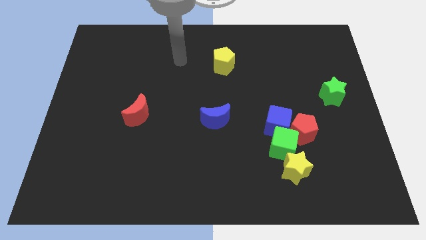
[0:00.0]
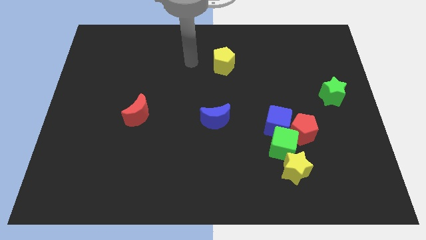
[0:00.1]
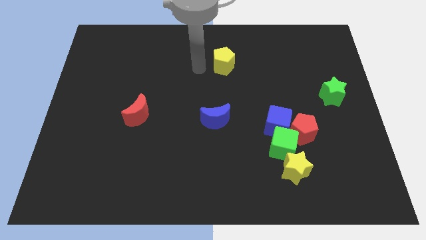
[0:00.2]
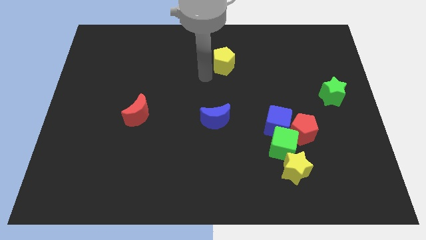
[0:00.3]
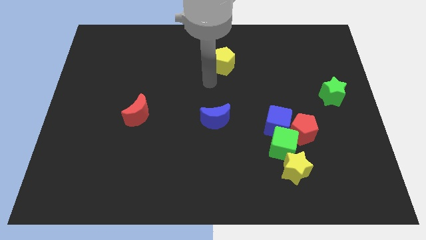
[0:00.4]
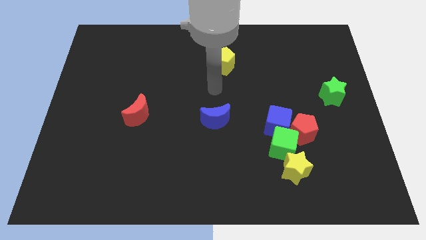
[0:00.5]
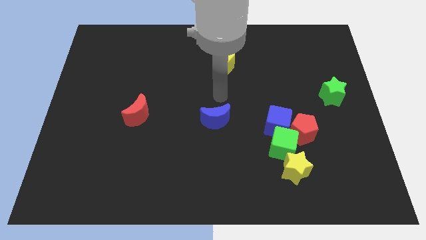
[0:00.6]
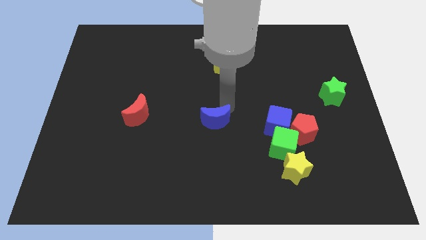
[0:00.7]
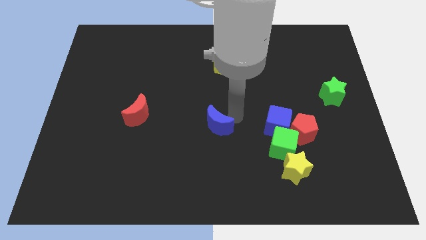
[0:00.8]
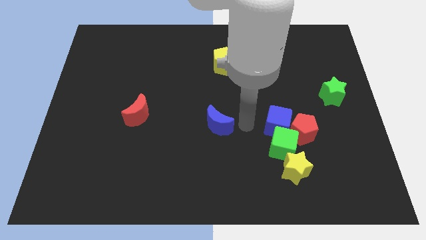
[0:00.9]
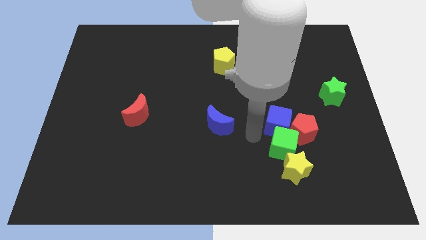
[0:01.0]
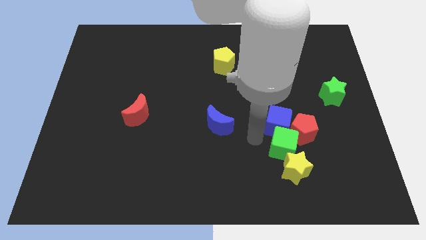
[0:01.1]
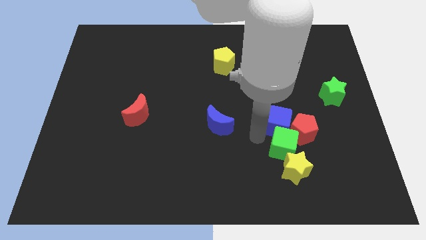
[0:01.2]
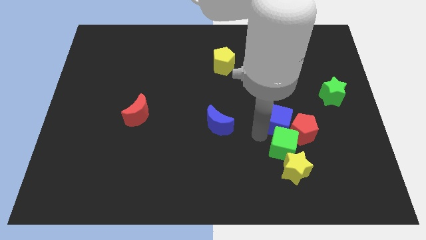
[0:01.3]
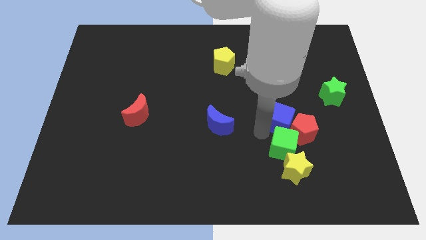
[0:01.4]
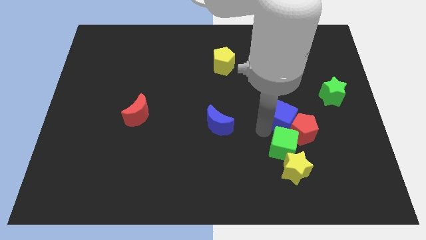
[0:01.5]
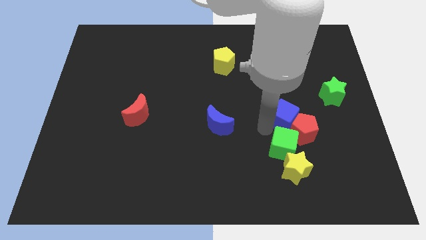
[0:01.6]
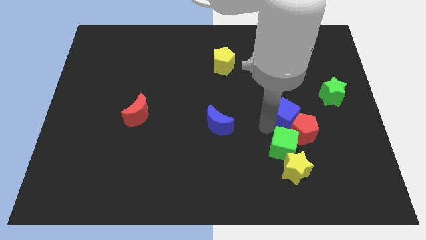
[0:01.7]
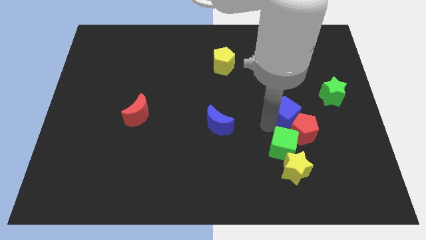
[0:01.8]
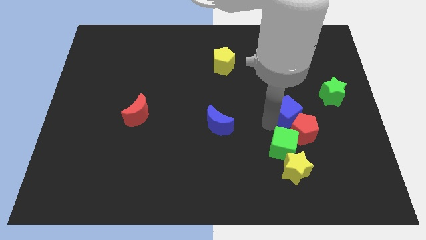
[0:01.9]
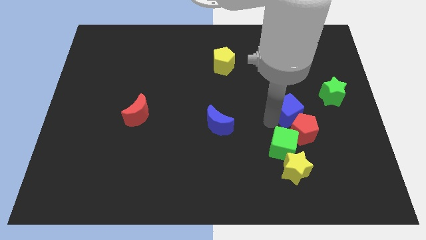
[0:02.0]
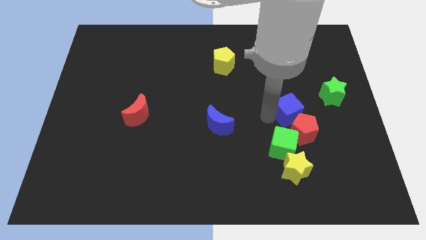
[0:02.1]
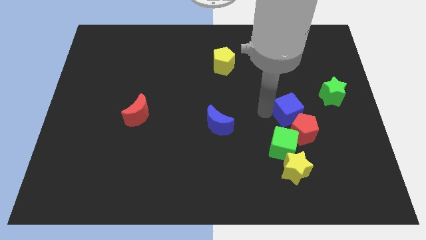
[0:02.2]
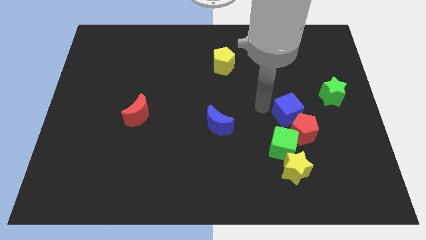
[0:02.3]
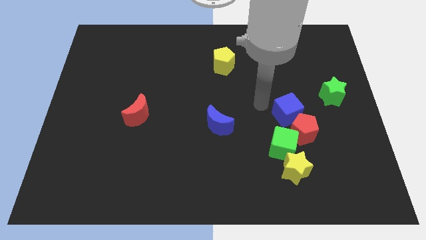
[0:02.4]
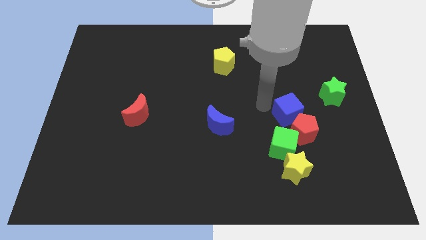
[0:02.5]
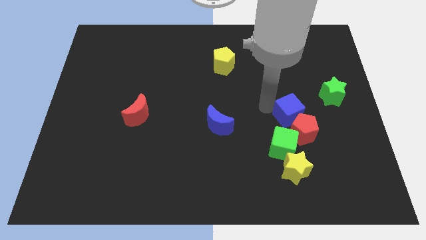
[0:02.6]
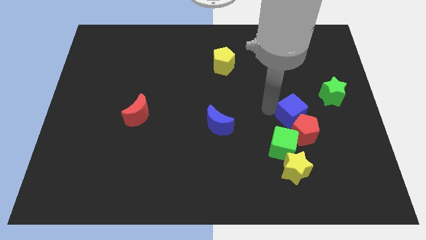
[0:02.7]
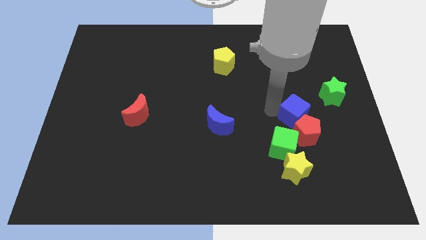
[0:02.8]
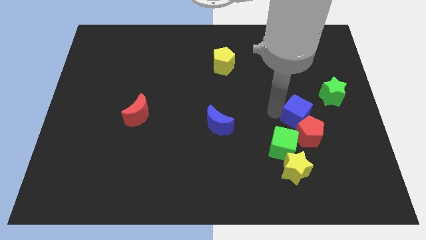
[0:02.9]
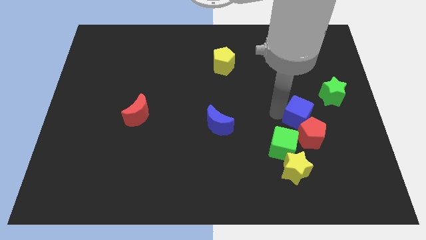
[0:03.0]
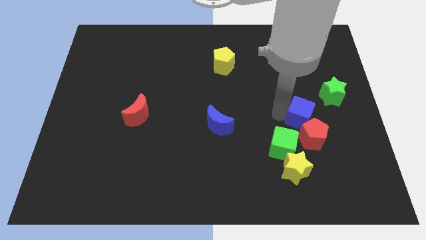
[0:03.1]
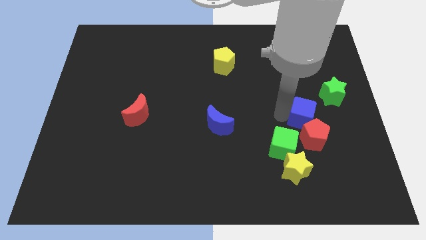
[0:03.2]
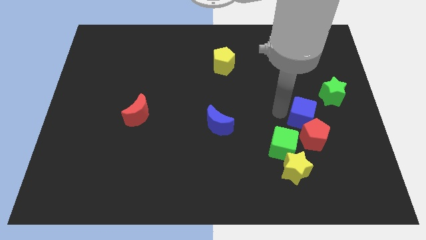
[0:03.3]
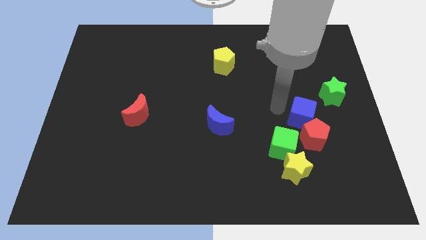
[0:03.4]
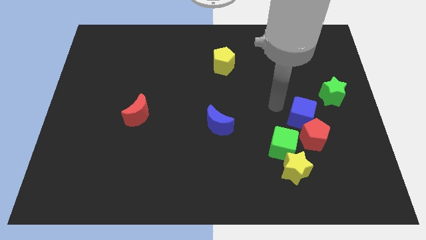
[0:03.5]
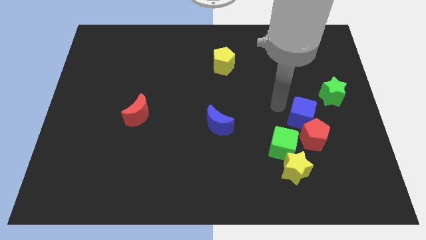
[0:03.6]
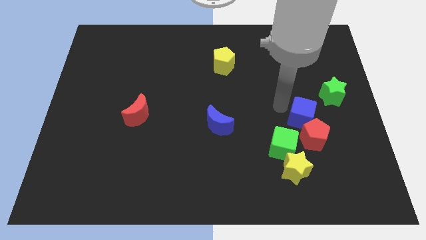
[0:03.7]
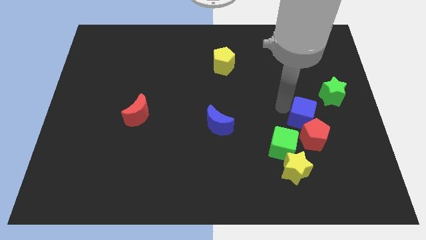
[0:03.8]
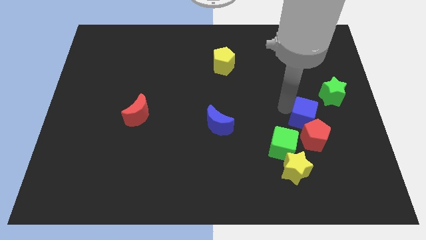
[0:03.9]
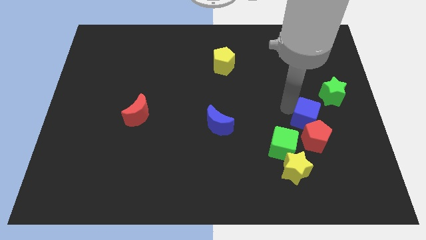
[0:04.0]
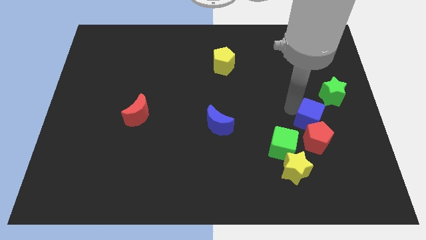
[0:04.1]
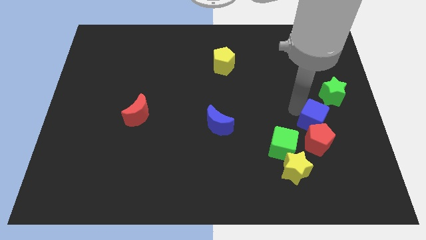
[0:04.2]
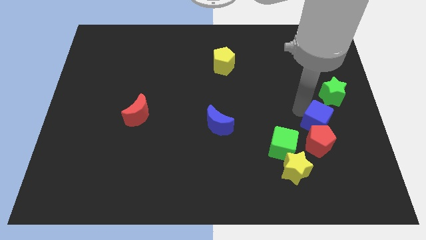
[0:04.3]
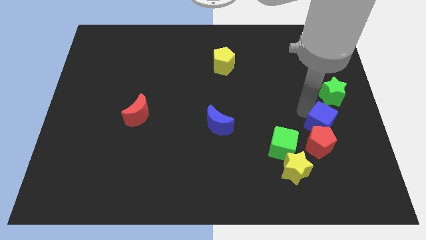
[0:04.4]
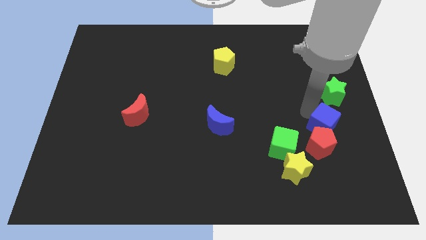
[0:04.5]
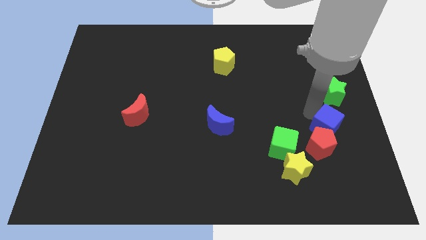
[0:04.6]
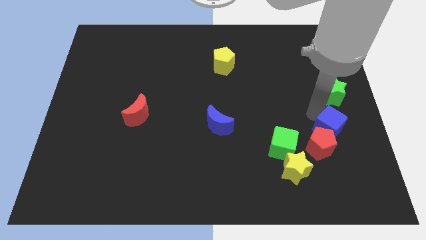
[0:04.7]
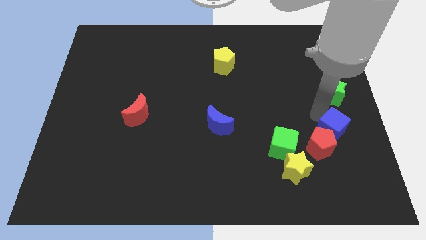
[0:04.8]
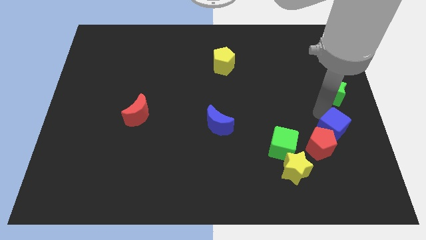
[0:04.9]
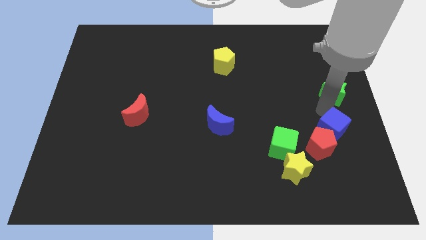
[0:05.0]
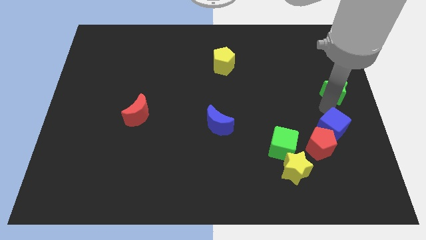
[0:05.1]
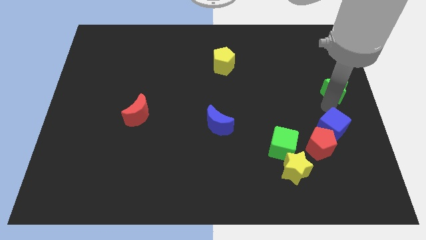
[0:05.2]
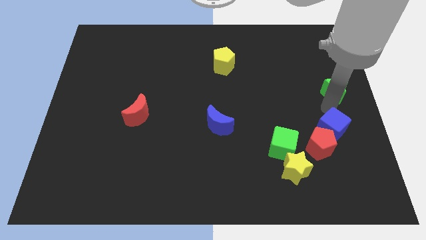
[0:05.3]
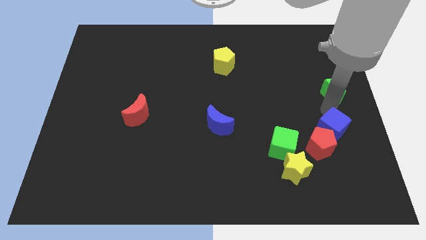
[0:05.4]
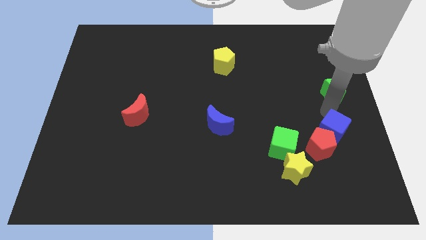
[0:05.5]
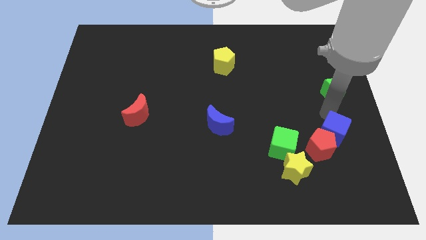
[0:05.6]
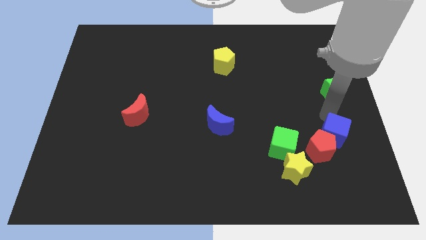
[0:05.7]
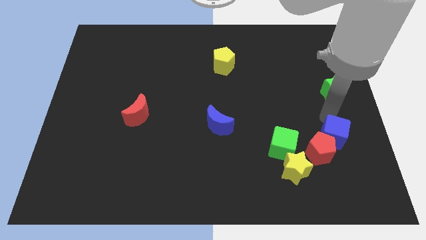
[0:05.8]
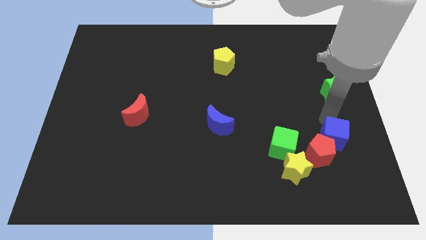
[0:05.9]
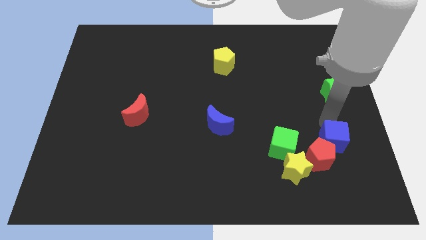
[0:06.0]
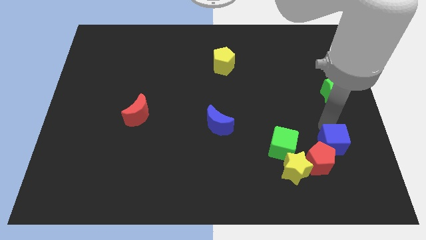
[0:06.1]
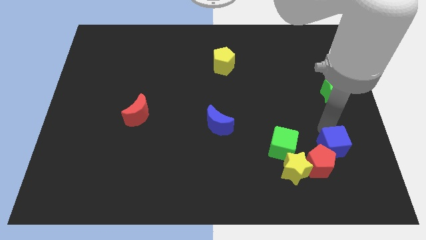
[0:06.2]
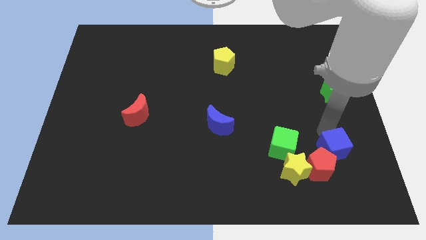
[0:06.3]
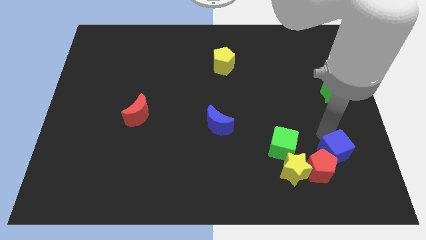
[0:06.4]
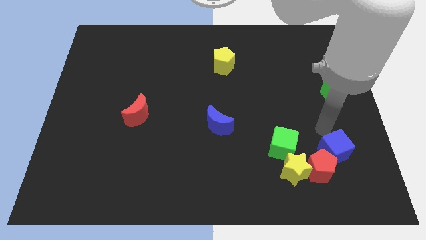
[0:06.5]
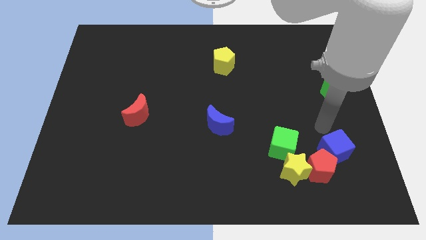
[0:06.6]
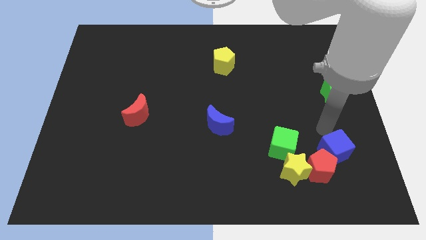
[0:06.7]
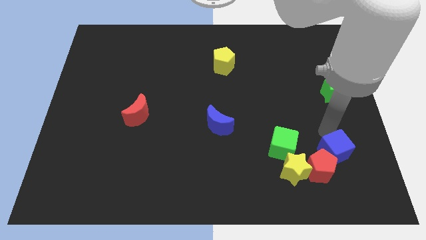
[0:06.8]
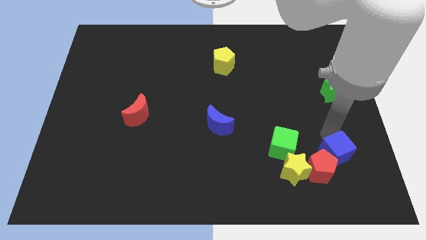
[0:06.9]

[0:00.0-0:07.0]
push the blue cube right of the yellow star

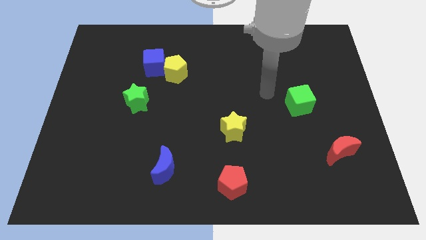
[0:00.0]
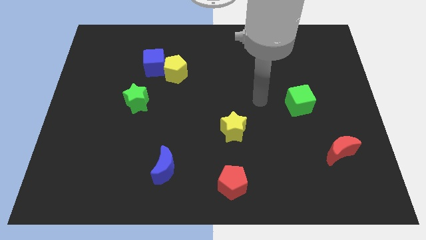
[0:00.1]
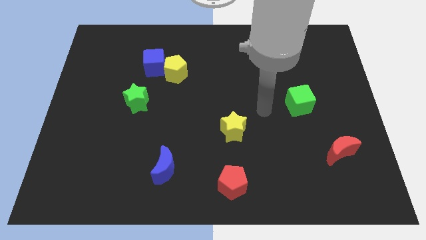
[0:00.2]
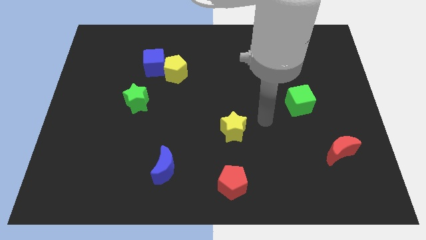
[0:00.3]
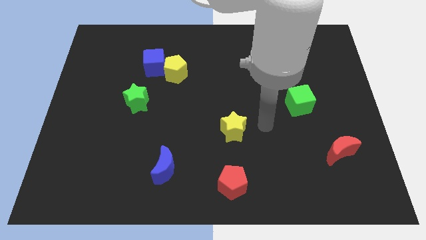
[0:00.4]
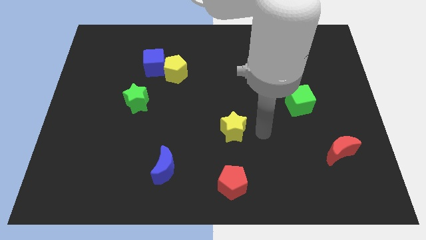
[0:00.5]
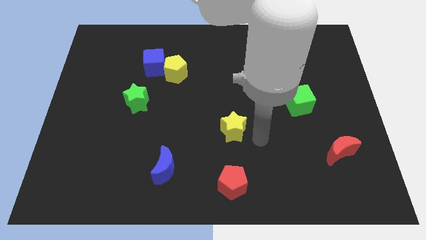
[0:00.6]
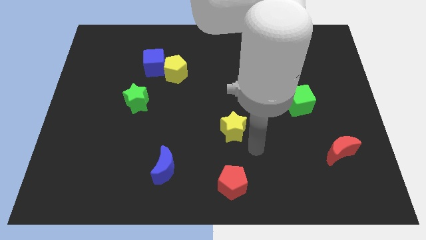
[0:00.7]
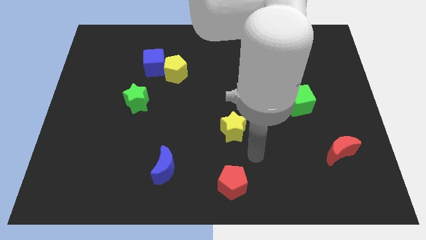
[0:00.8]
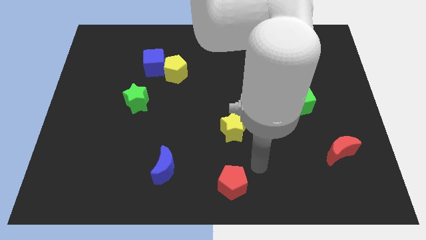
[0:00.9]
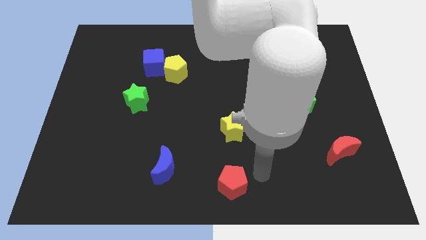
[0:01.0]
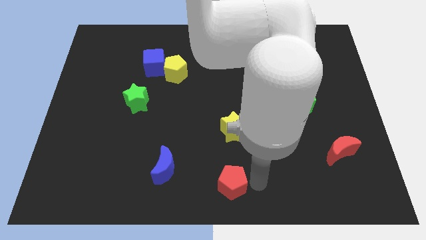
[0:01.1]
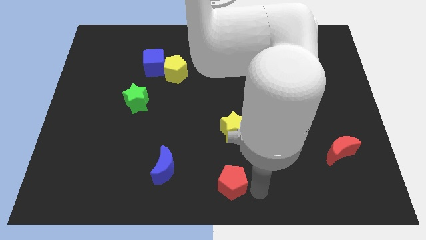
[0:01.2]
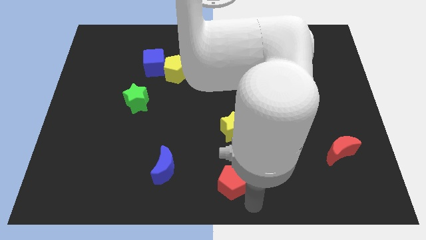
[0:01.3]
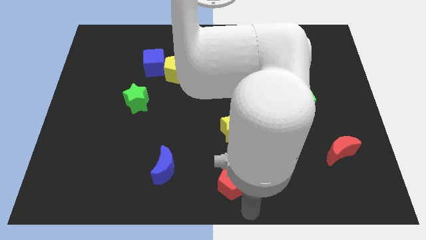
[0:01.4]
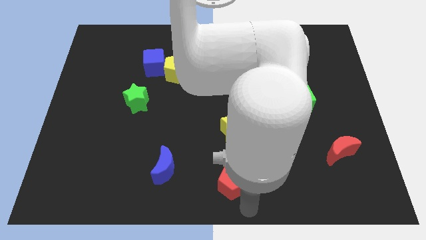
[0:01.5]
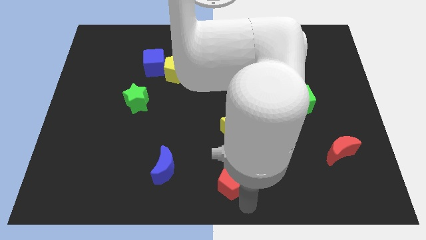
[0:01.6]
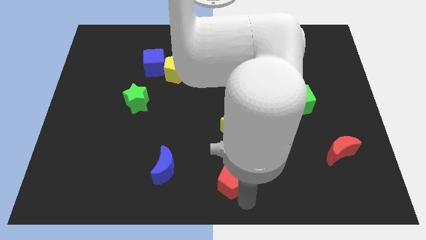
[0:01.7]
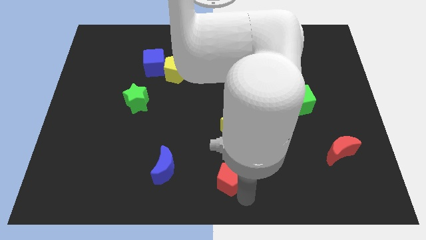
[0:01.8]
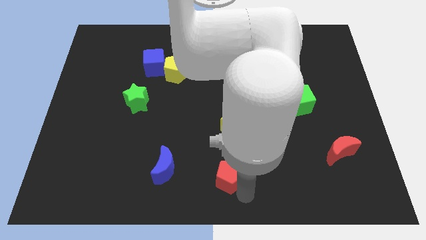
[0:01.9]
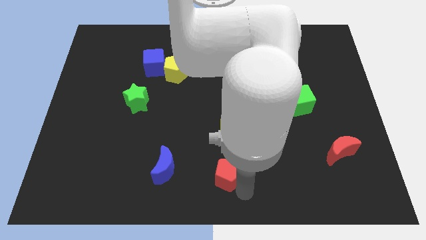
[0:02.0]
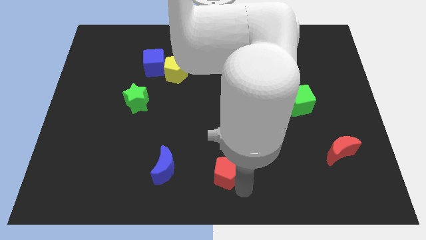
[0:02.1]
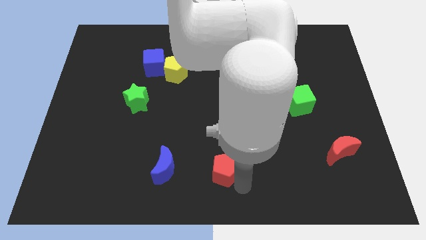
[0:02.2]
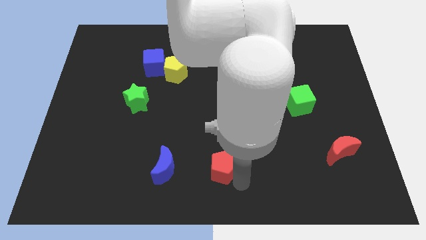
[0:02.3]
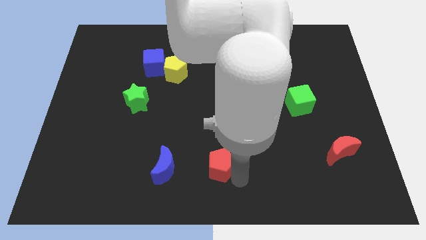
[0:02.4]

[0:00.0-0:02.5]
slide the red pentagon to the bottom left of the yellow star
